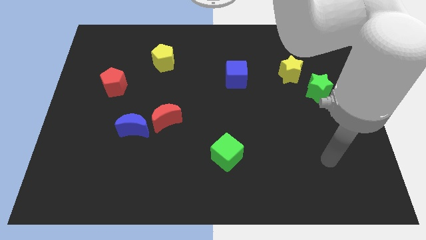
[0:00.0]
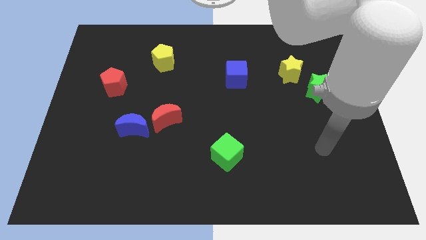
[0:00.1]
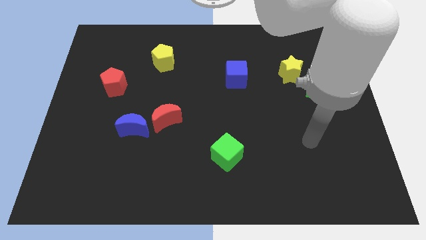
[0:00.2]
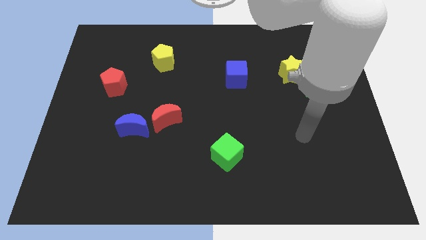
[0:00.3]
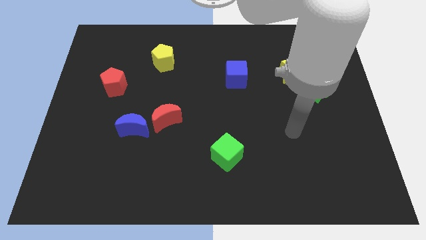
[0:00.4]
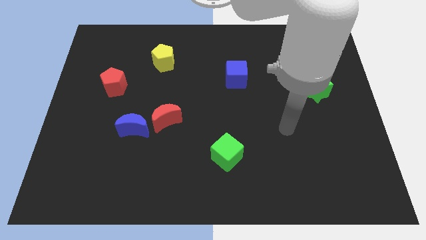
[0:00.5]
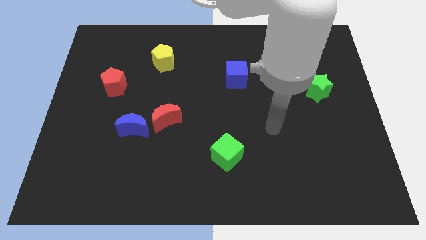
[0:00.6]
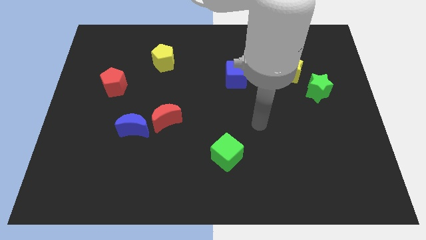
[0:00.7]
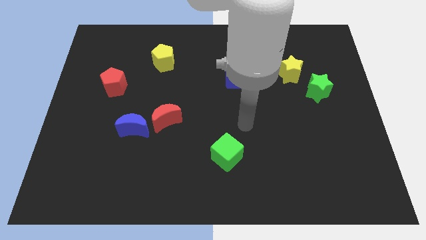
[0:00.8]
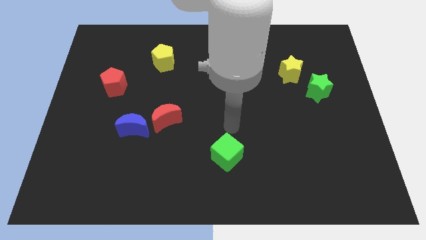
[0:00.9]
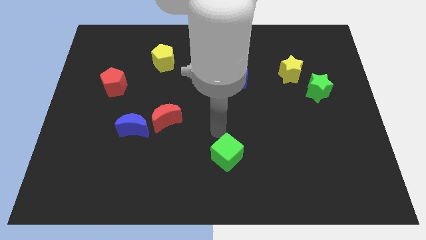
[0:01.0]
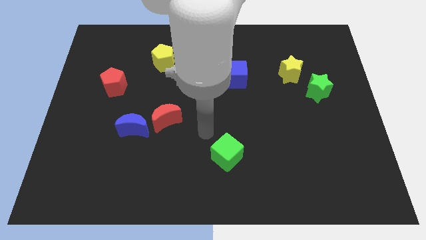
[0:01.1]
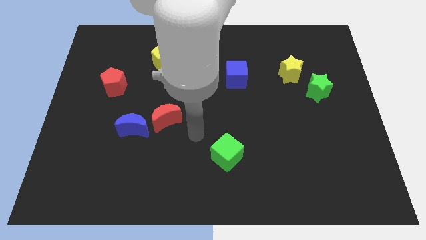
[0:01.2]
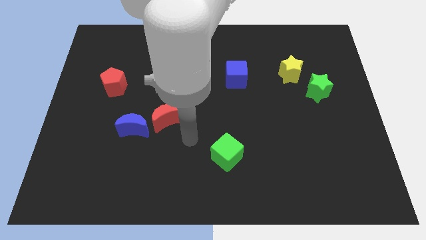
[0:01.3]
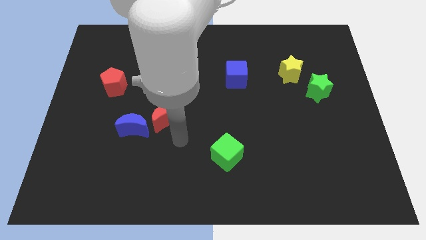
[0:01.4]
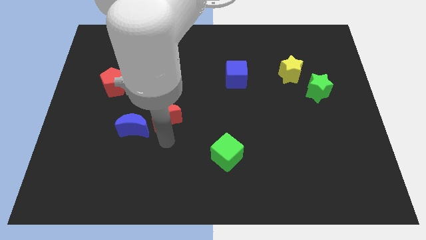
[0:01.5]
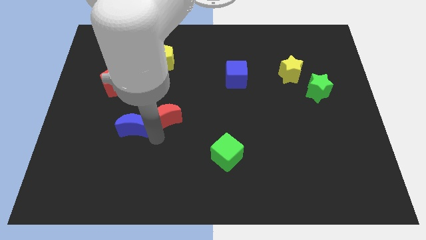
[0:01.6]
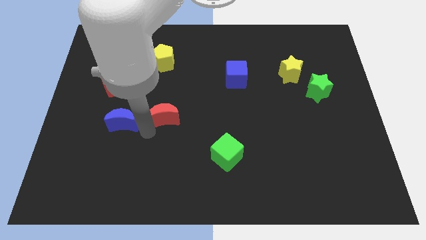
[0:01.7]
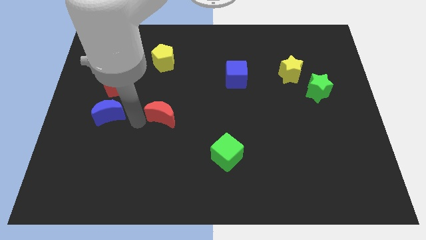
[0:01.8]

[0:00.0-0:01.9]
separate the red moon from the blue moon

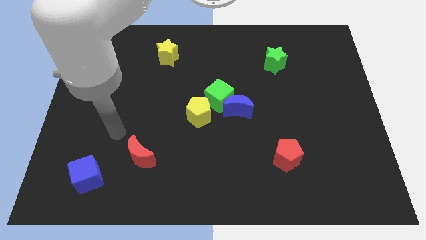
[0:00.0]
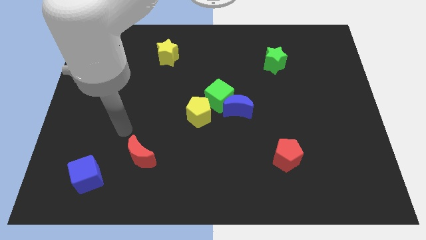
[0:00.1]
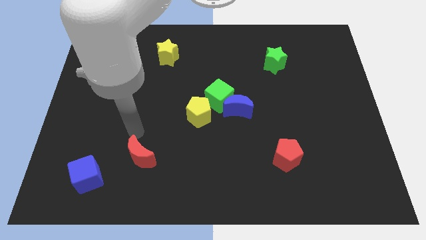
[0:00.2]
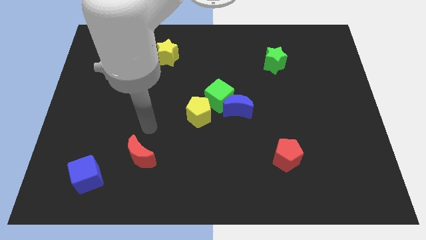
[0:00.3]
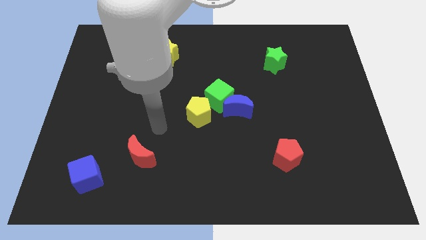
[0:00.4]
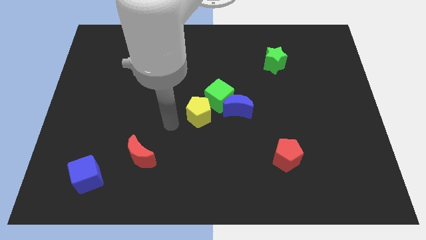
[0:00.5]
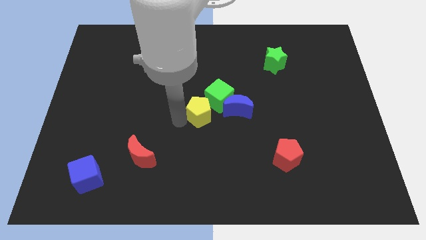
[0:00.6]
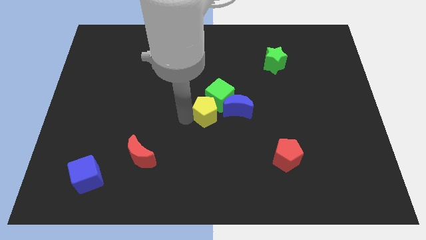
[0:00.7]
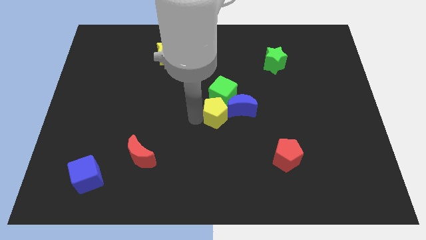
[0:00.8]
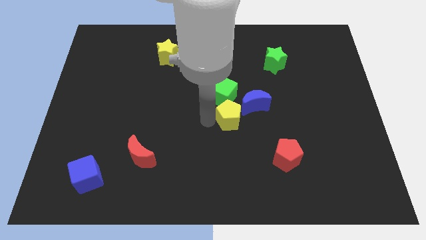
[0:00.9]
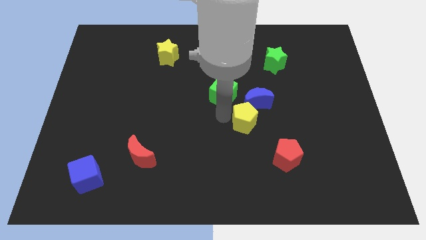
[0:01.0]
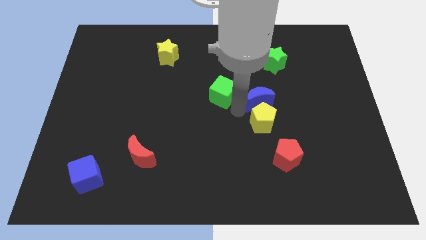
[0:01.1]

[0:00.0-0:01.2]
move the green cube away from the blue moon and yellow pentagon

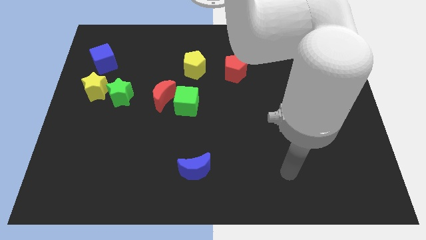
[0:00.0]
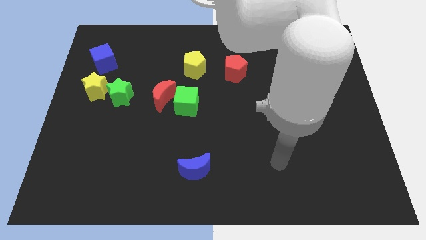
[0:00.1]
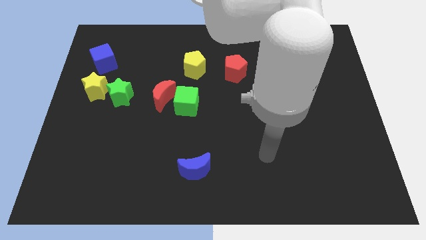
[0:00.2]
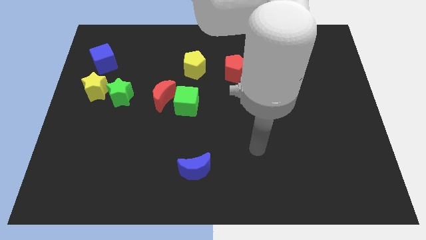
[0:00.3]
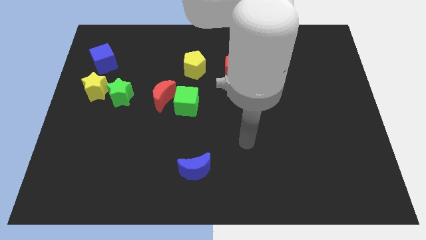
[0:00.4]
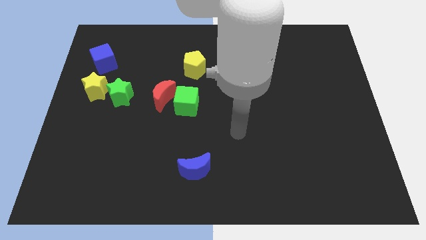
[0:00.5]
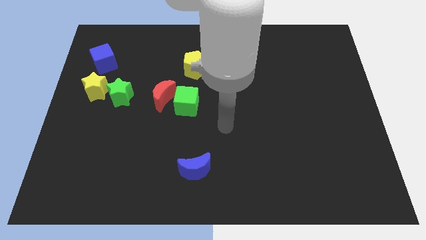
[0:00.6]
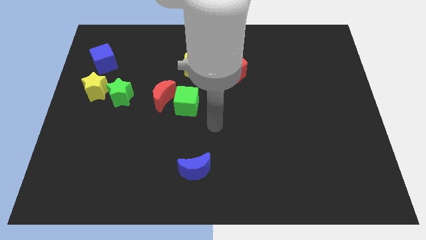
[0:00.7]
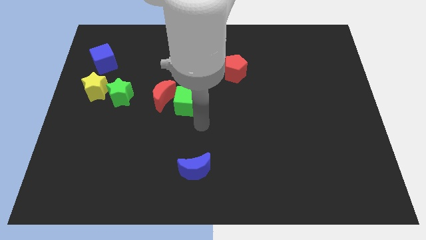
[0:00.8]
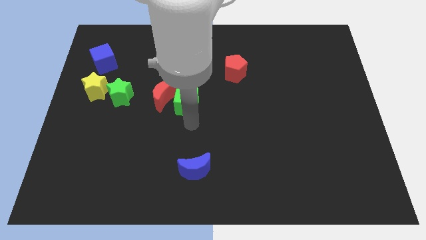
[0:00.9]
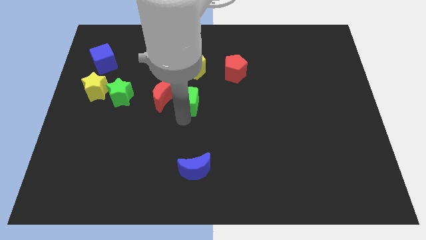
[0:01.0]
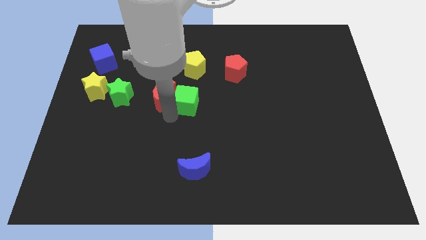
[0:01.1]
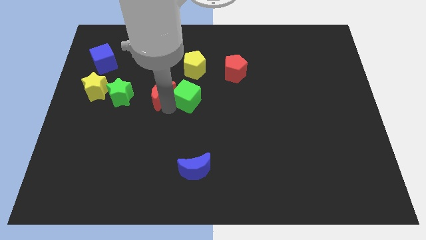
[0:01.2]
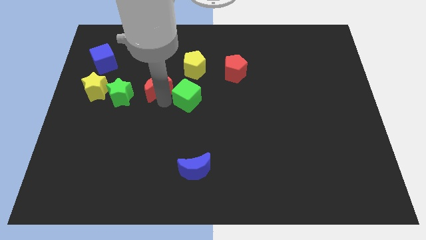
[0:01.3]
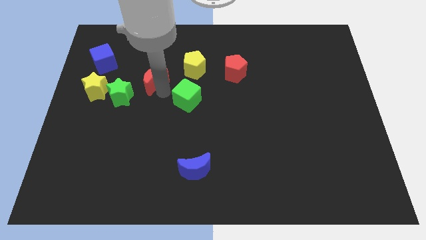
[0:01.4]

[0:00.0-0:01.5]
move the green cube away from the red moon

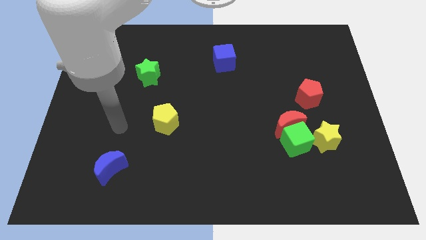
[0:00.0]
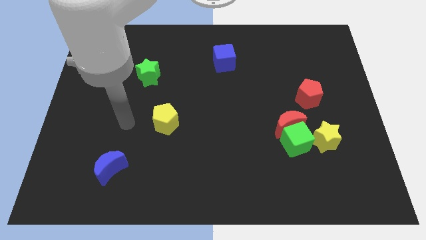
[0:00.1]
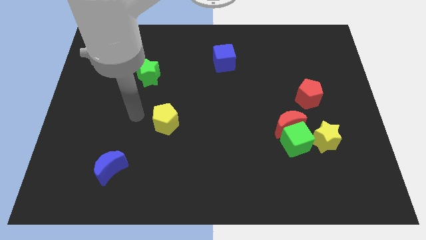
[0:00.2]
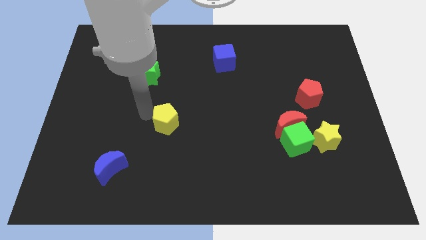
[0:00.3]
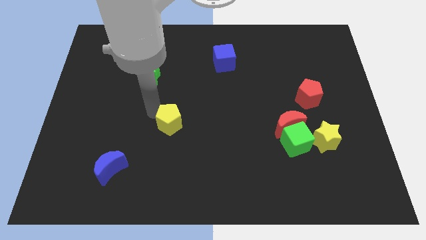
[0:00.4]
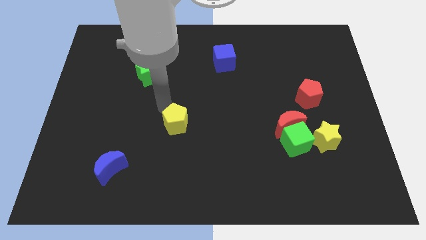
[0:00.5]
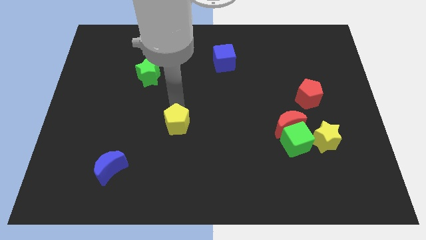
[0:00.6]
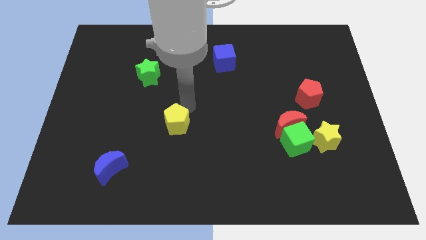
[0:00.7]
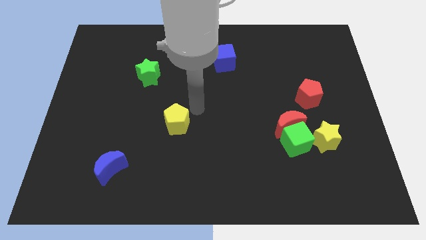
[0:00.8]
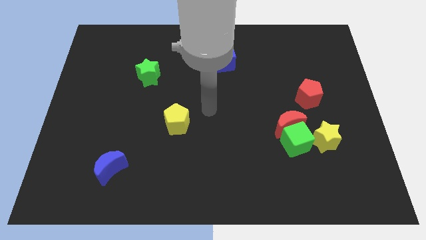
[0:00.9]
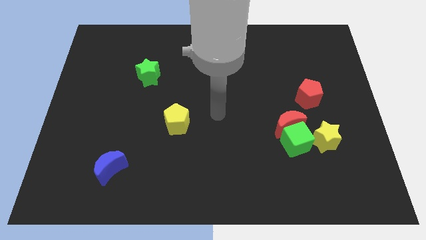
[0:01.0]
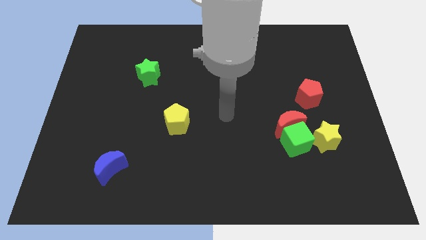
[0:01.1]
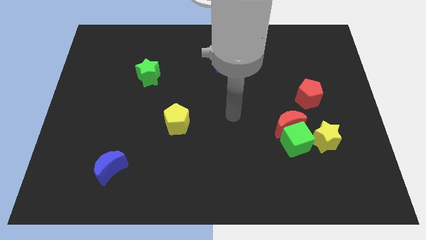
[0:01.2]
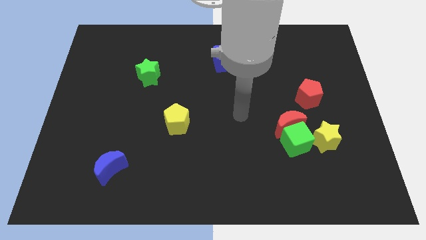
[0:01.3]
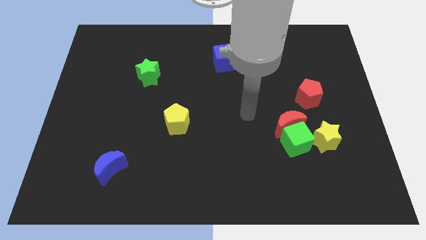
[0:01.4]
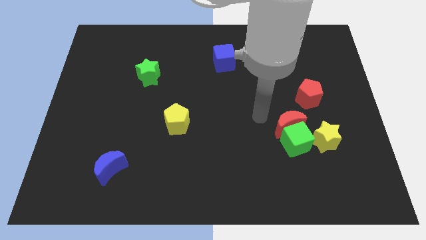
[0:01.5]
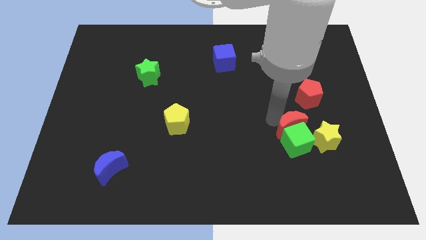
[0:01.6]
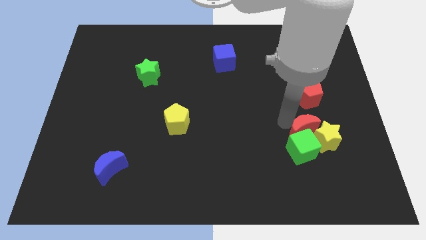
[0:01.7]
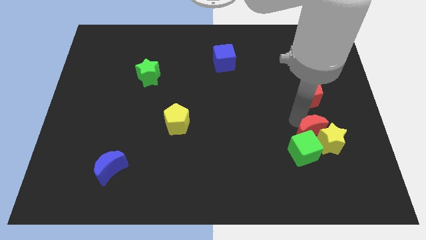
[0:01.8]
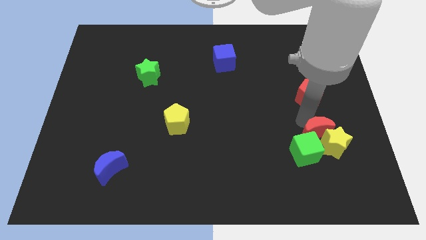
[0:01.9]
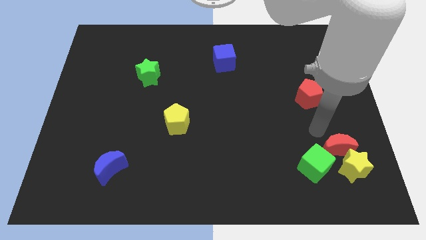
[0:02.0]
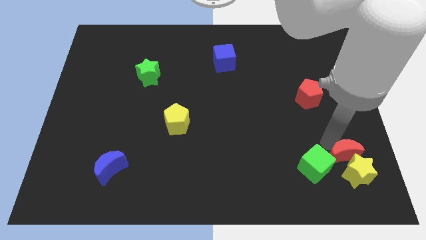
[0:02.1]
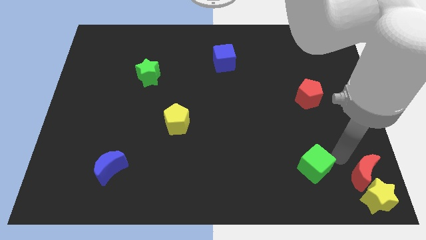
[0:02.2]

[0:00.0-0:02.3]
move the green cube away from the red moon and yellow star

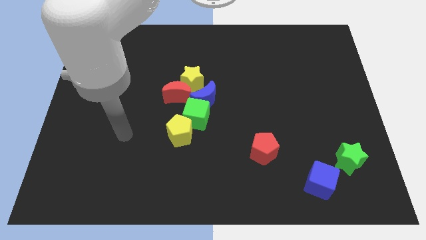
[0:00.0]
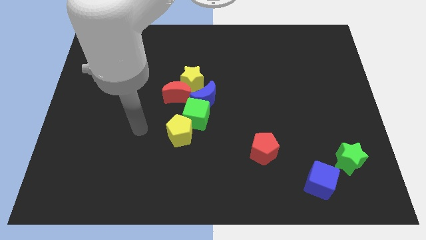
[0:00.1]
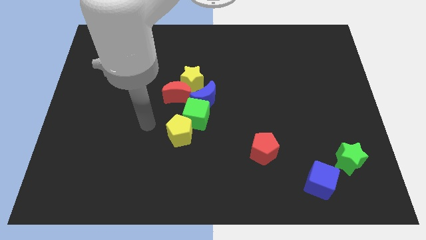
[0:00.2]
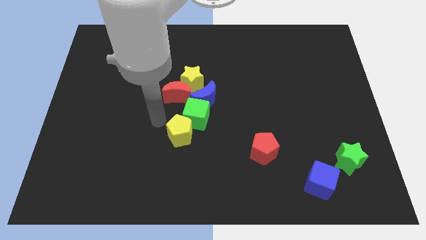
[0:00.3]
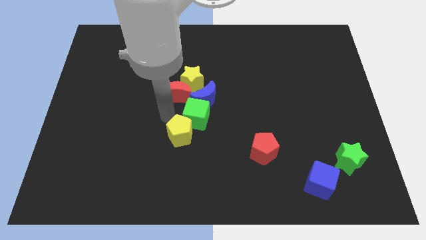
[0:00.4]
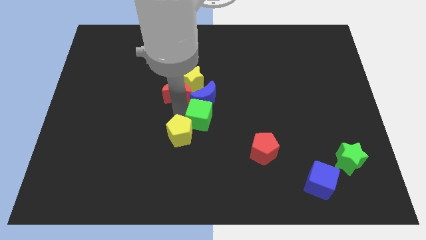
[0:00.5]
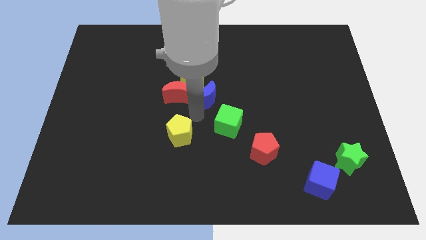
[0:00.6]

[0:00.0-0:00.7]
separate the yellow pentagon from the green cube

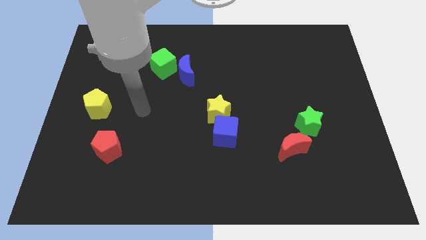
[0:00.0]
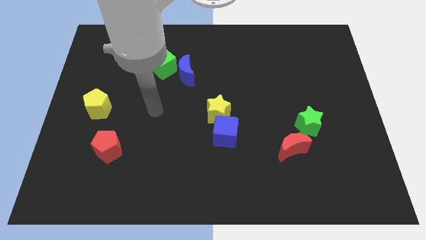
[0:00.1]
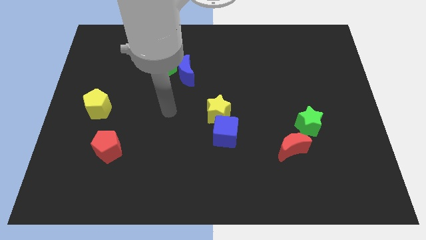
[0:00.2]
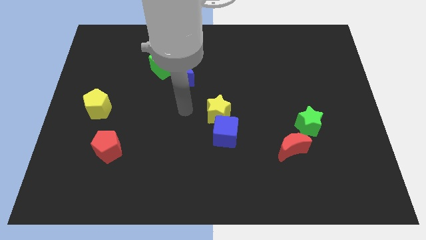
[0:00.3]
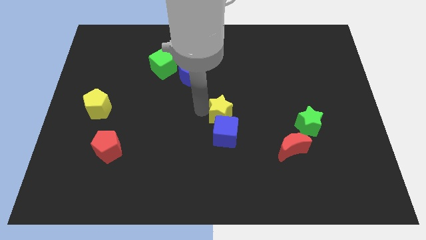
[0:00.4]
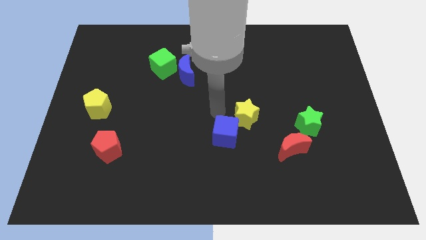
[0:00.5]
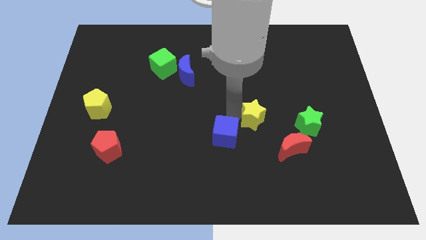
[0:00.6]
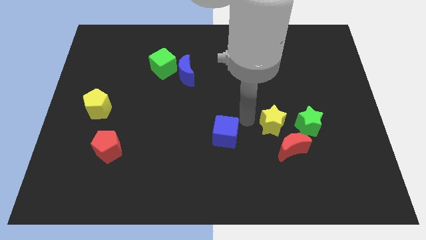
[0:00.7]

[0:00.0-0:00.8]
move the blue cube away from the yellow star

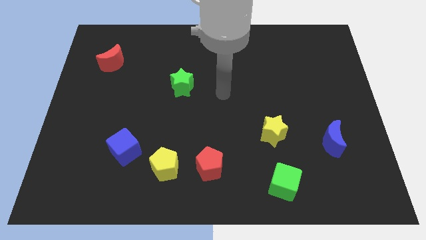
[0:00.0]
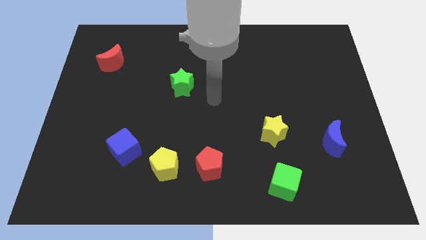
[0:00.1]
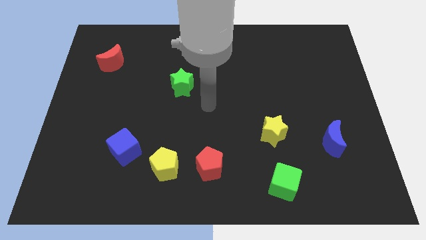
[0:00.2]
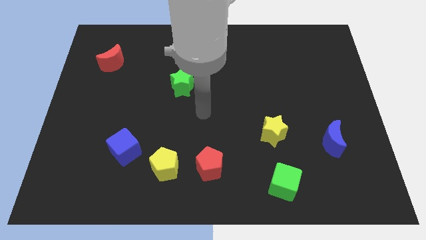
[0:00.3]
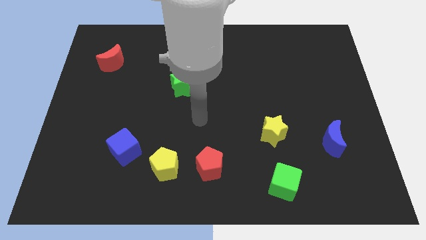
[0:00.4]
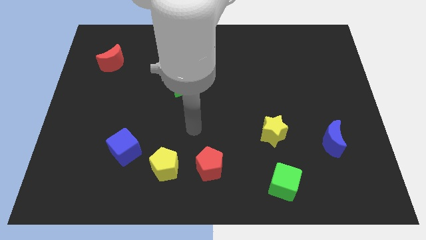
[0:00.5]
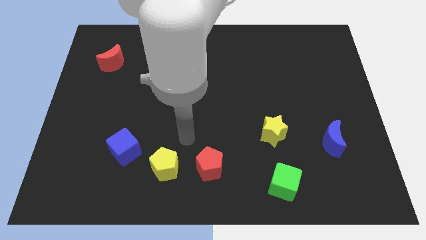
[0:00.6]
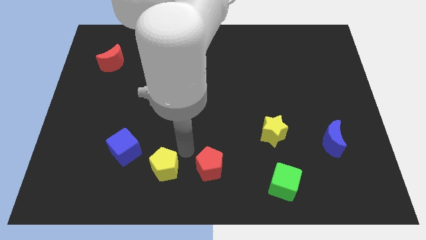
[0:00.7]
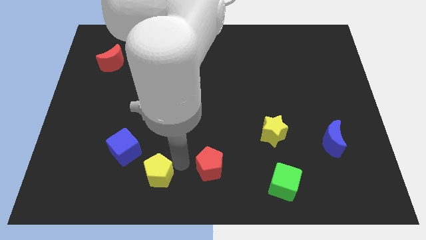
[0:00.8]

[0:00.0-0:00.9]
move the red pentagon away from the yellow pentagon
